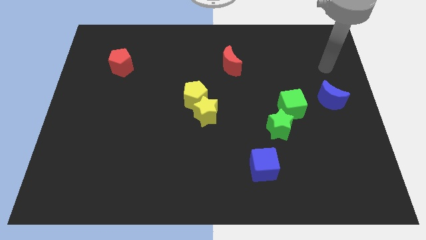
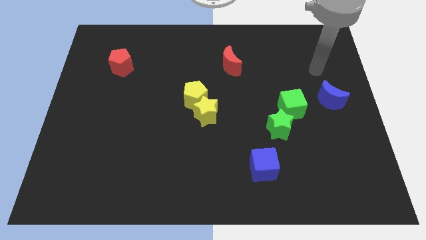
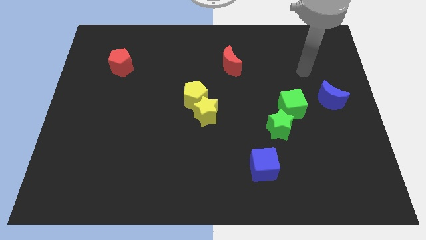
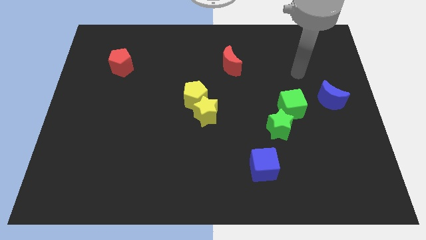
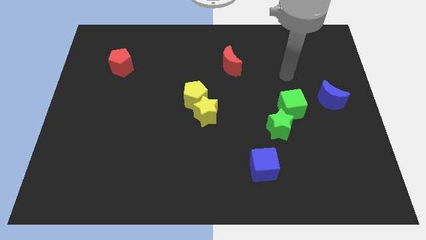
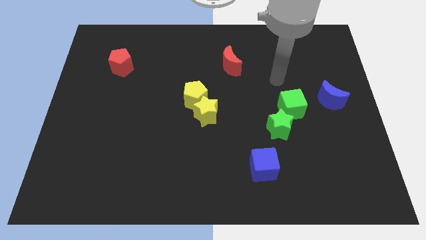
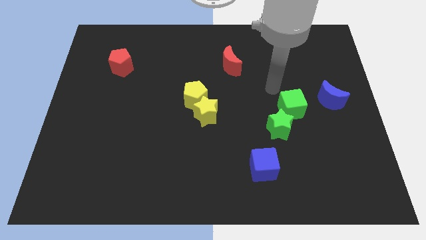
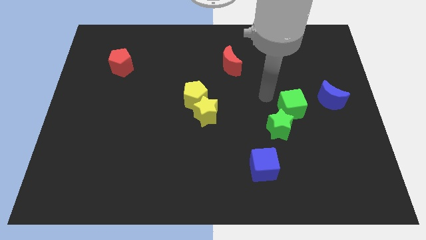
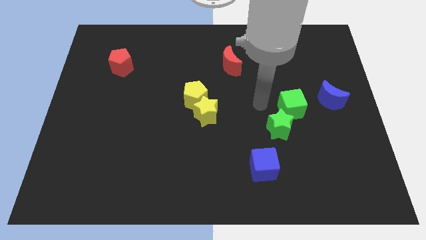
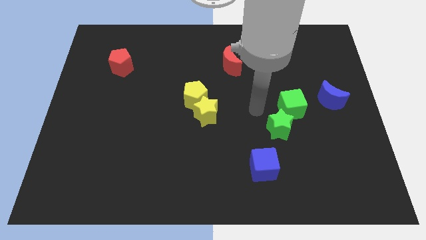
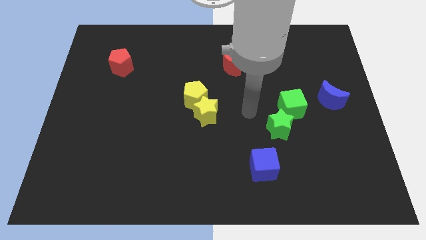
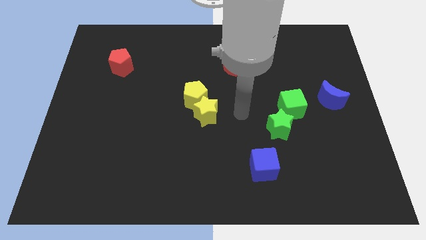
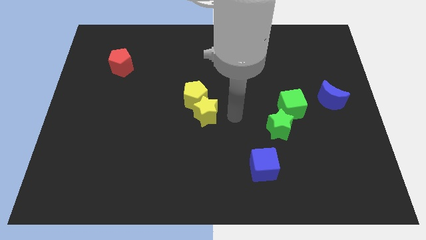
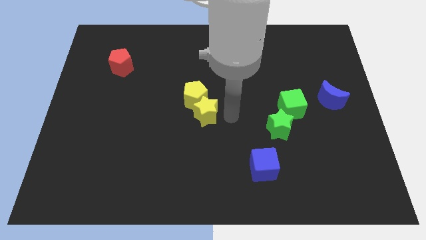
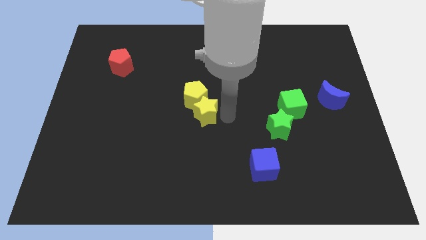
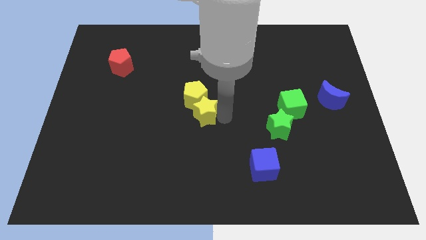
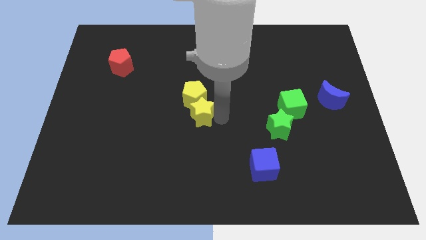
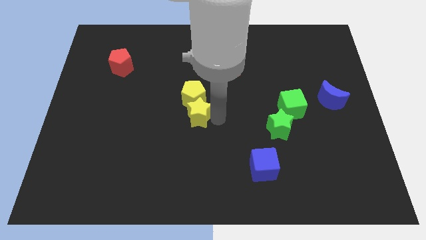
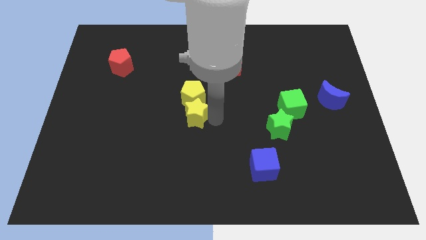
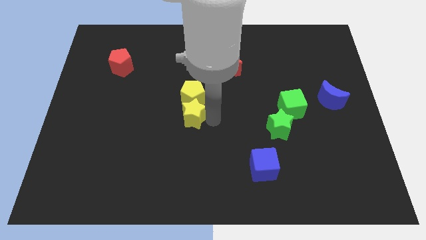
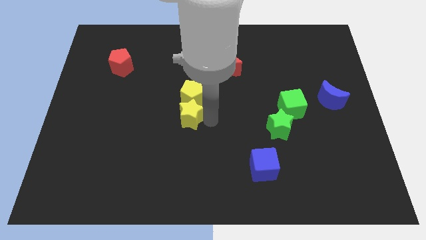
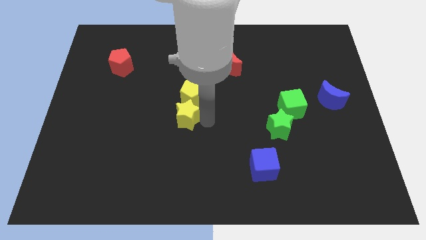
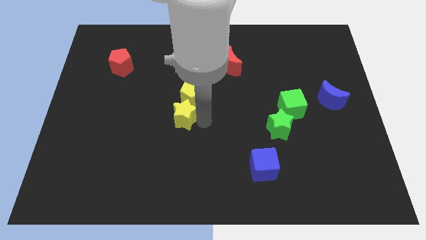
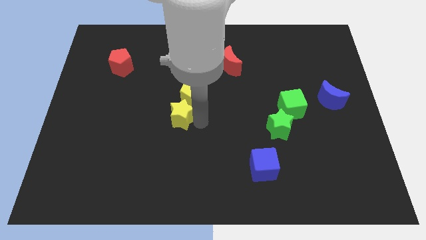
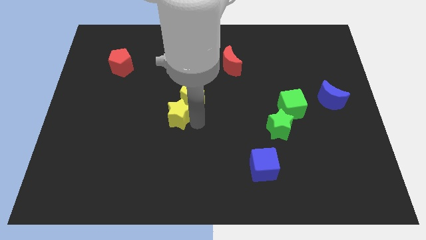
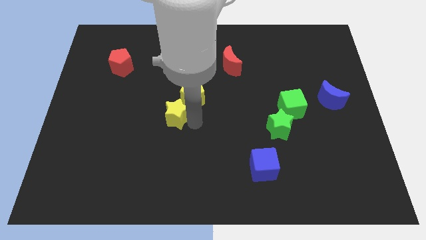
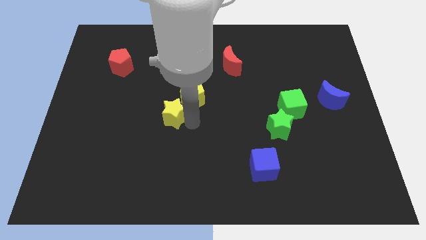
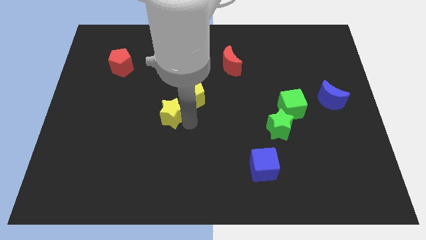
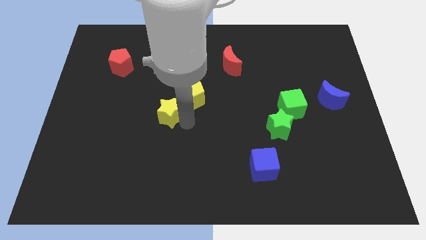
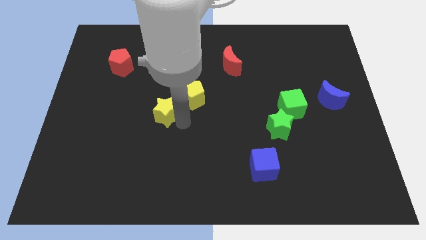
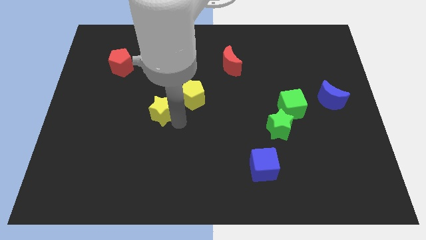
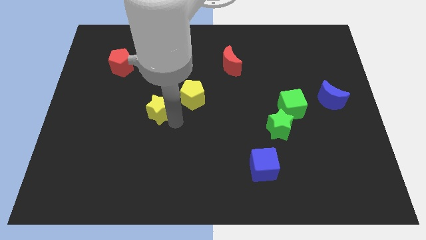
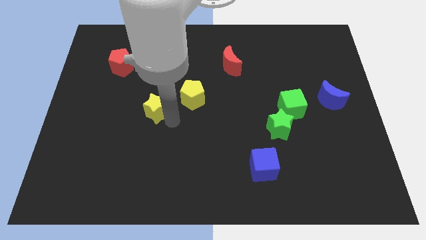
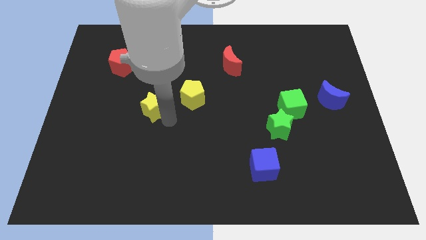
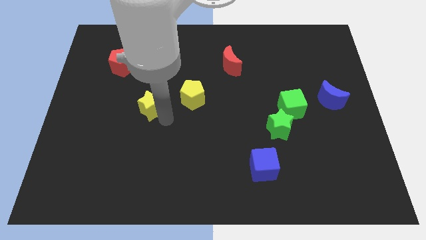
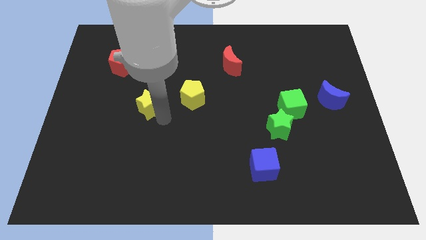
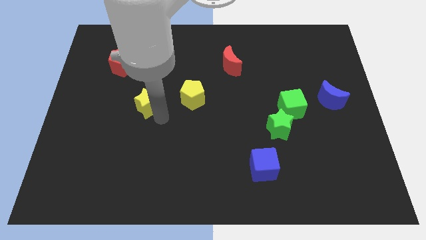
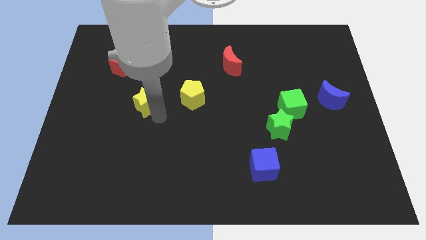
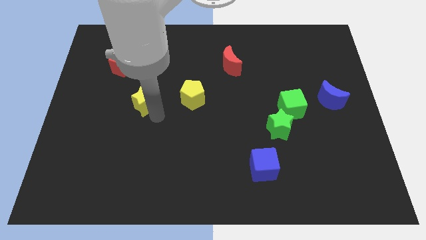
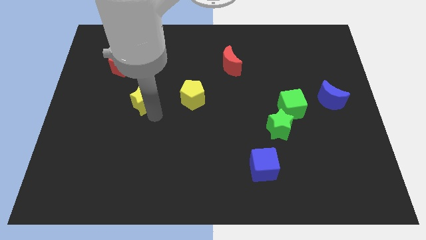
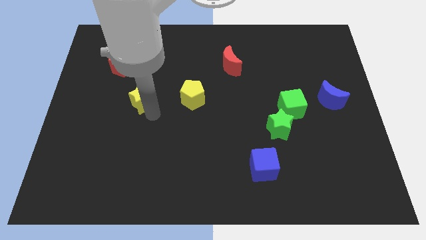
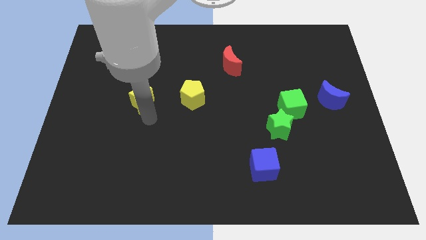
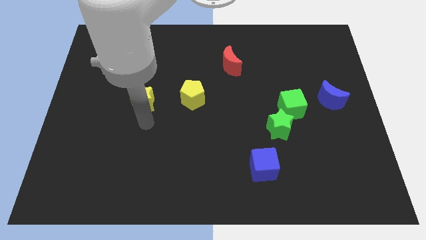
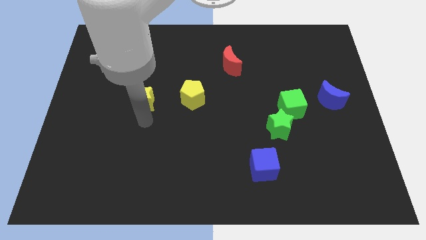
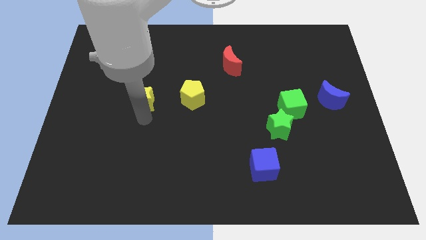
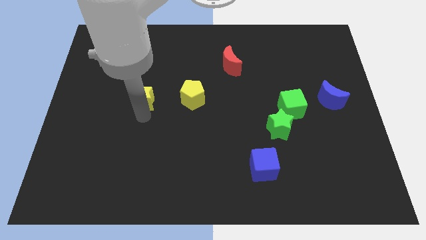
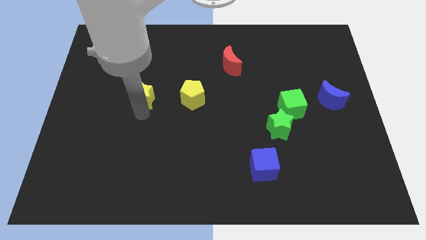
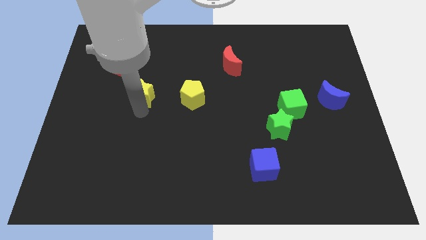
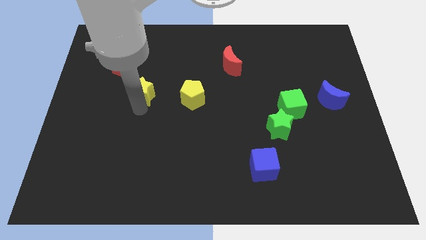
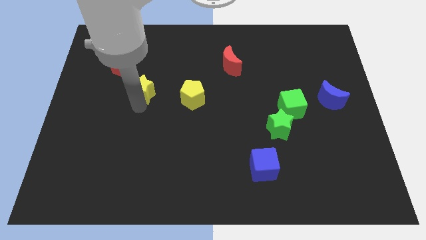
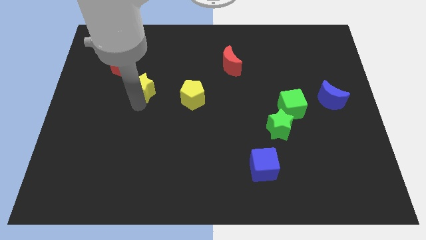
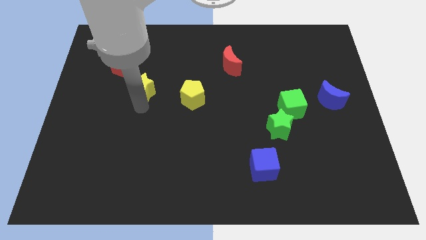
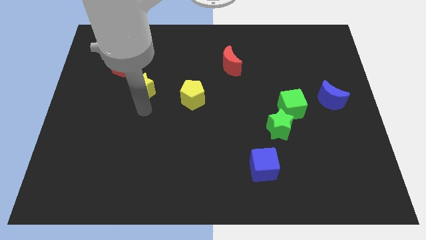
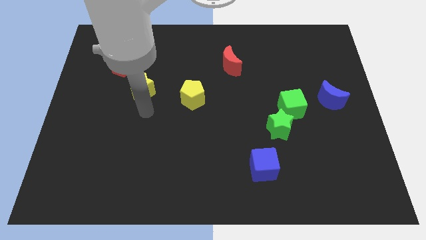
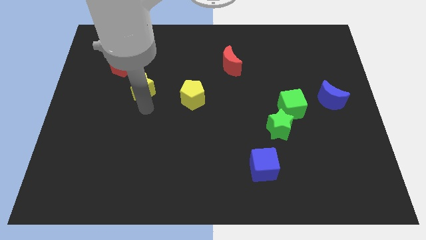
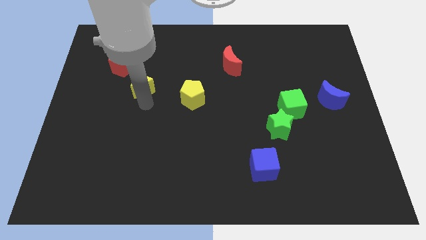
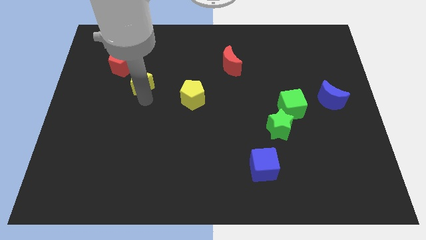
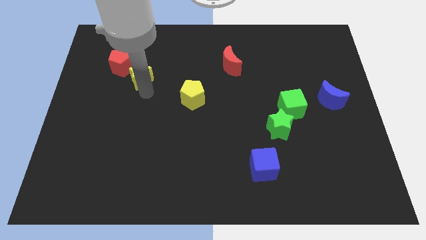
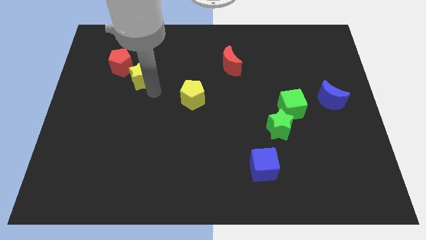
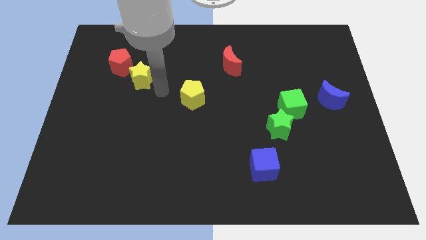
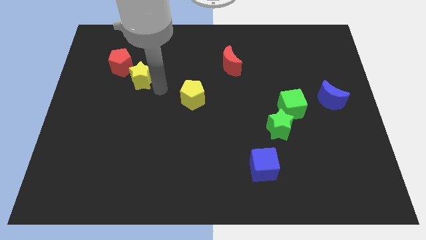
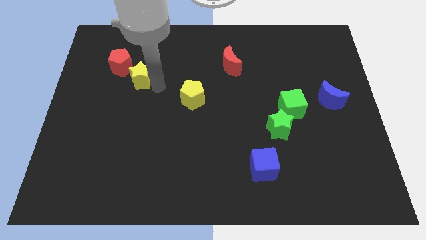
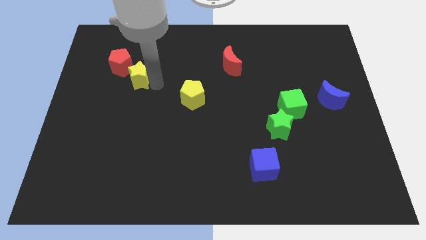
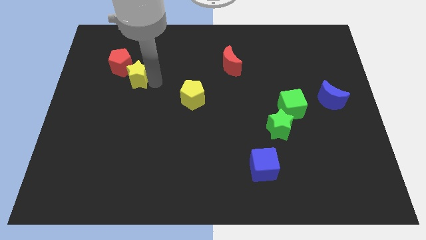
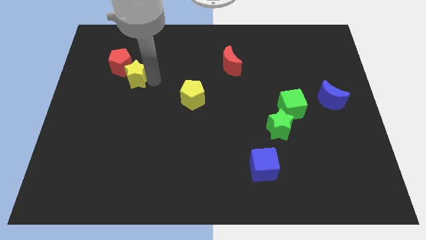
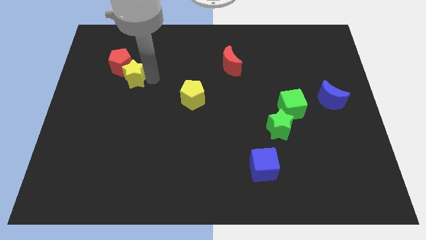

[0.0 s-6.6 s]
push the yellow star close to the red pentagon
